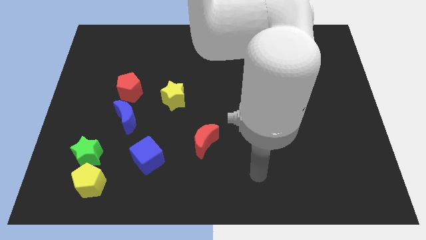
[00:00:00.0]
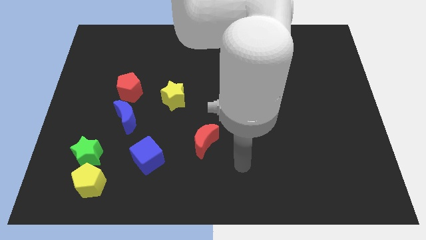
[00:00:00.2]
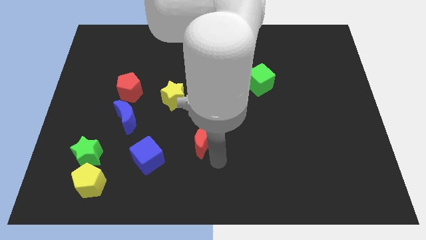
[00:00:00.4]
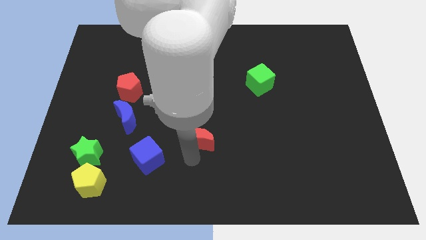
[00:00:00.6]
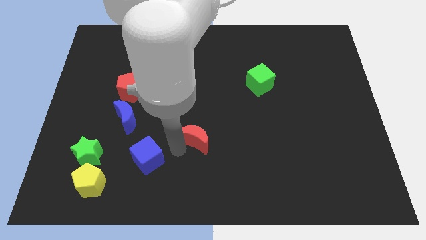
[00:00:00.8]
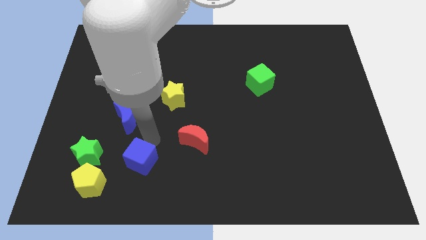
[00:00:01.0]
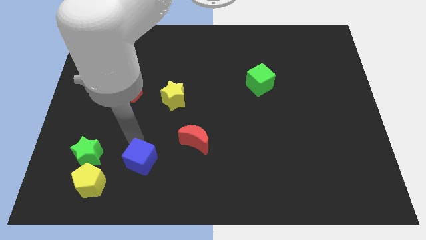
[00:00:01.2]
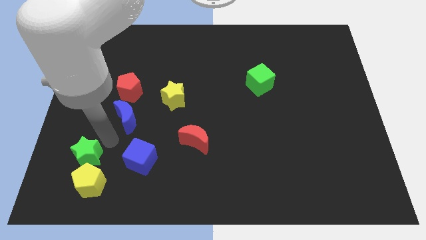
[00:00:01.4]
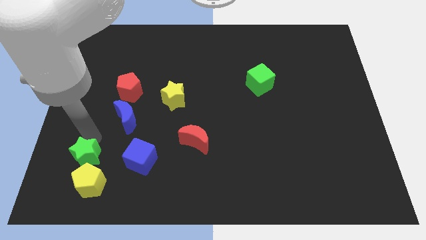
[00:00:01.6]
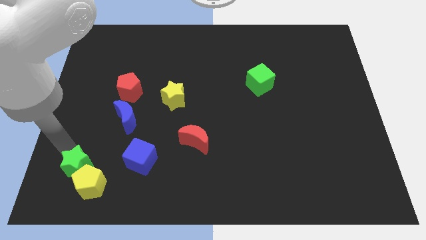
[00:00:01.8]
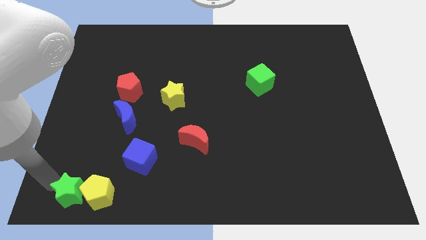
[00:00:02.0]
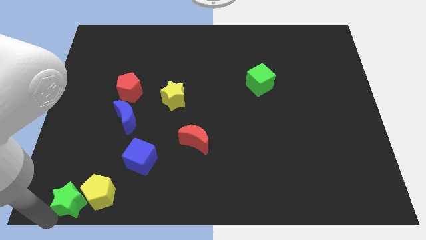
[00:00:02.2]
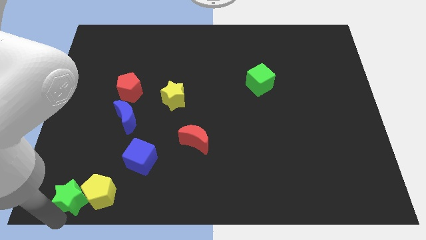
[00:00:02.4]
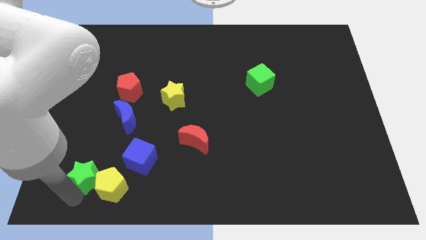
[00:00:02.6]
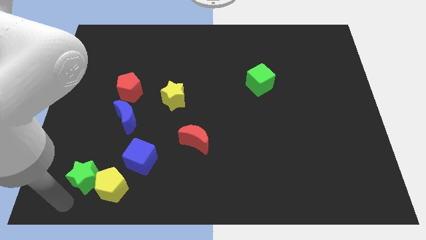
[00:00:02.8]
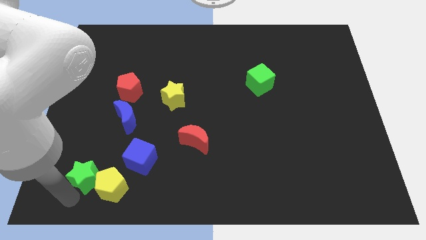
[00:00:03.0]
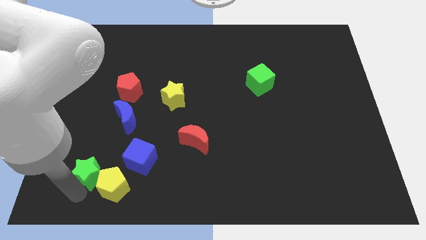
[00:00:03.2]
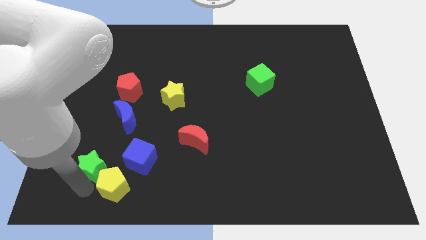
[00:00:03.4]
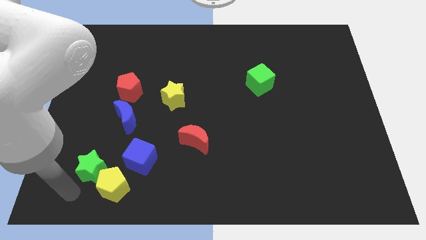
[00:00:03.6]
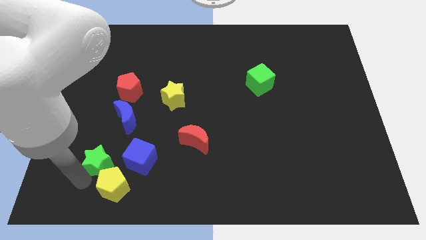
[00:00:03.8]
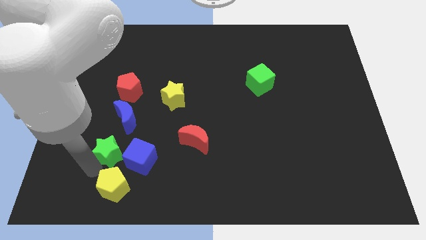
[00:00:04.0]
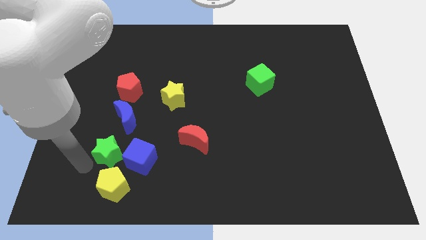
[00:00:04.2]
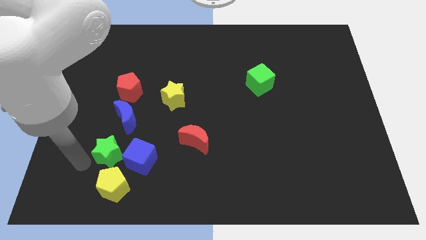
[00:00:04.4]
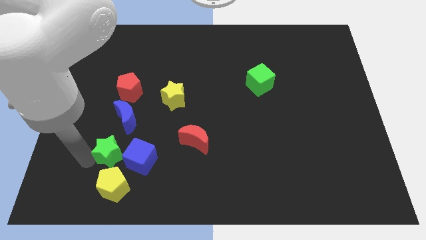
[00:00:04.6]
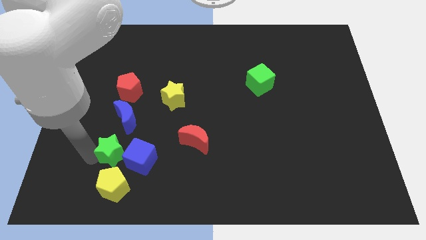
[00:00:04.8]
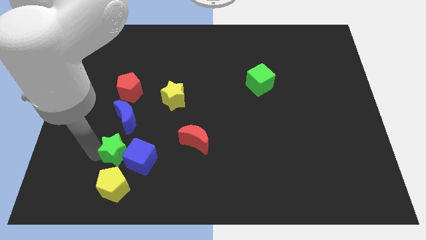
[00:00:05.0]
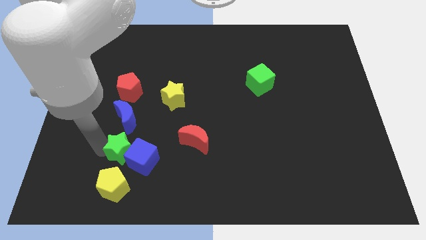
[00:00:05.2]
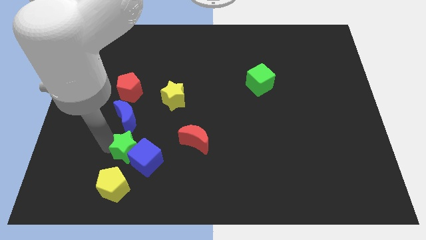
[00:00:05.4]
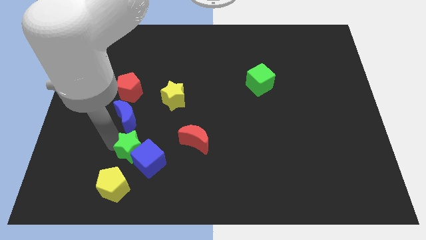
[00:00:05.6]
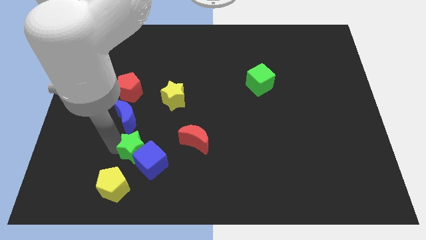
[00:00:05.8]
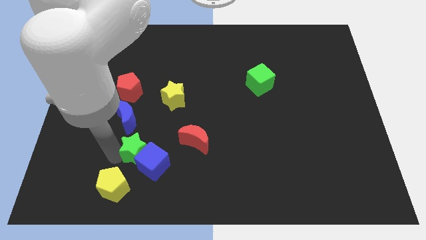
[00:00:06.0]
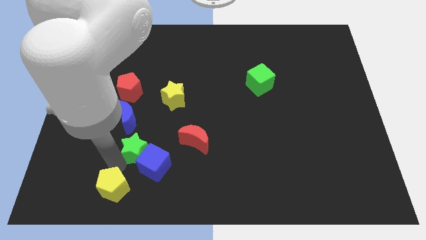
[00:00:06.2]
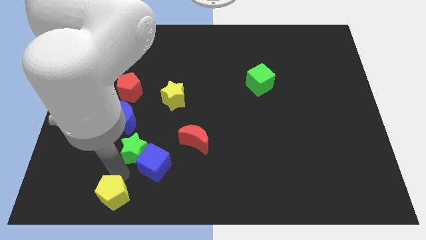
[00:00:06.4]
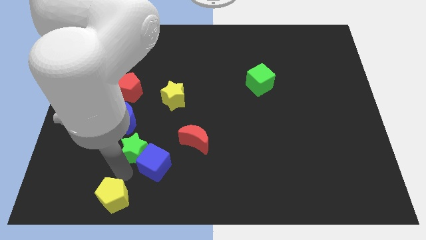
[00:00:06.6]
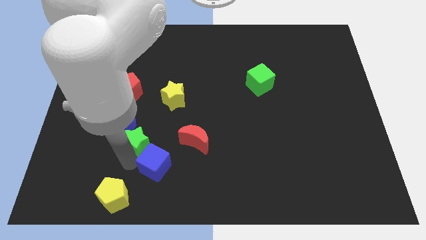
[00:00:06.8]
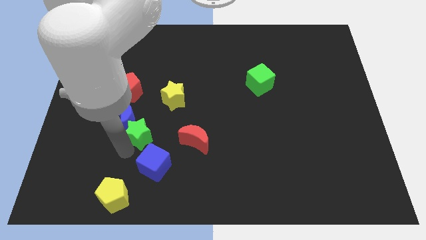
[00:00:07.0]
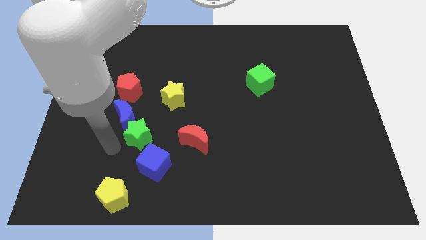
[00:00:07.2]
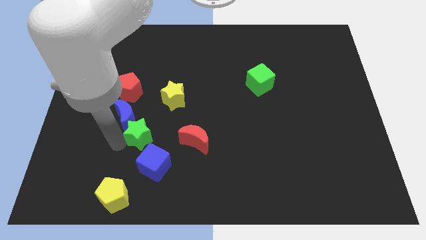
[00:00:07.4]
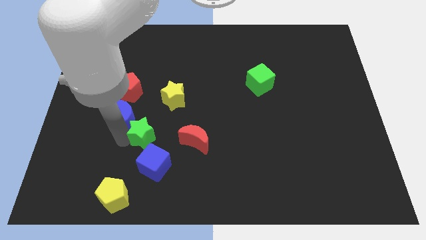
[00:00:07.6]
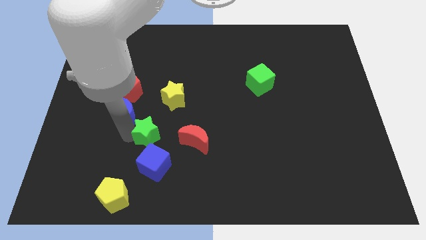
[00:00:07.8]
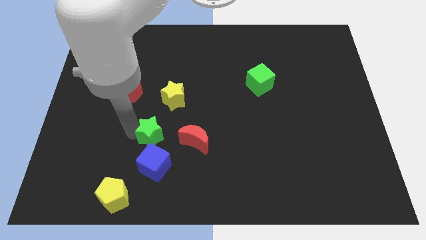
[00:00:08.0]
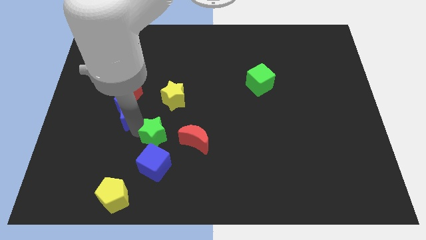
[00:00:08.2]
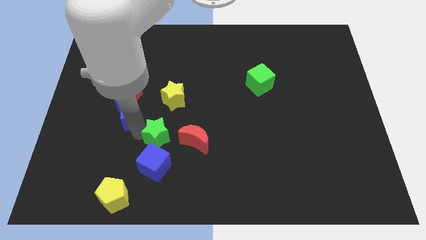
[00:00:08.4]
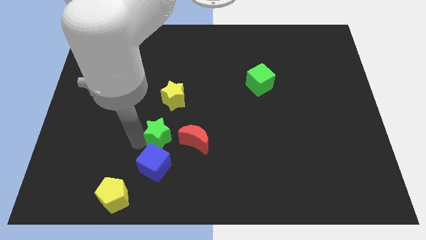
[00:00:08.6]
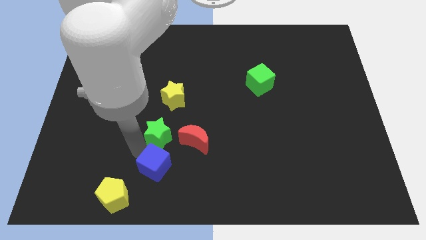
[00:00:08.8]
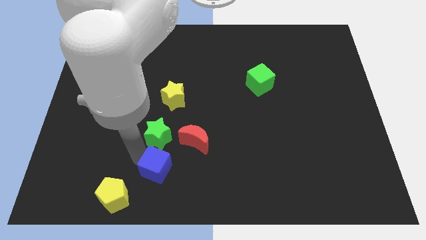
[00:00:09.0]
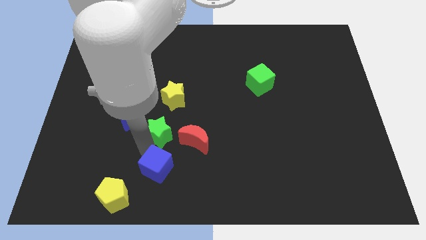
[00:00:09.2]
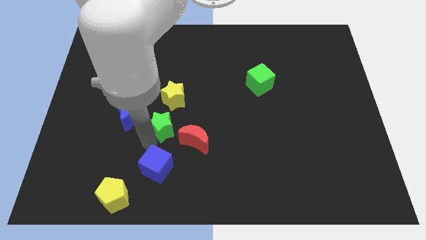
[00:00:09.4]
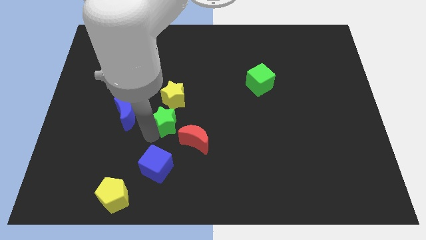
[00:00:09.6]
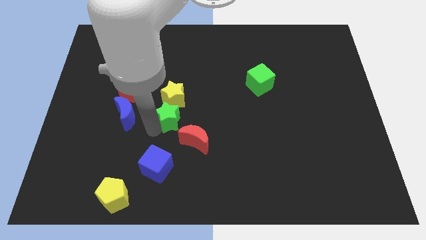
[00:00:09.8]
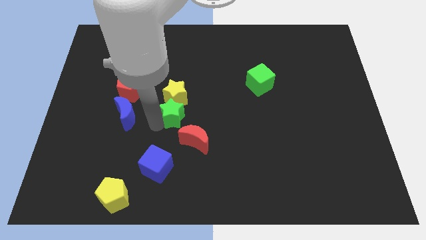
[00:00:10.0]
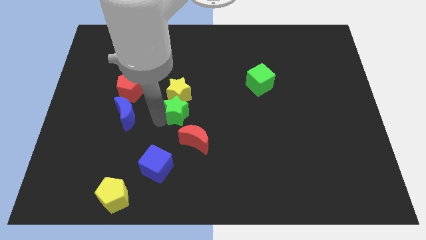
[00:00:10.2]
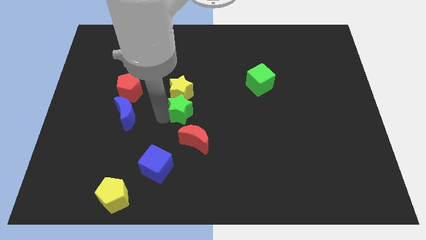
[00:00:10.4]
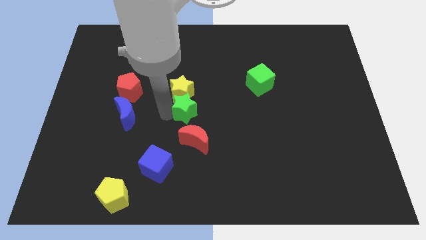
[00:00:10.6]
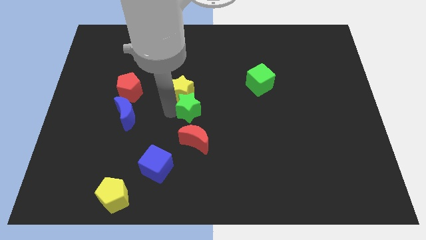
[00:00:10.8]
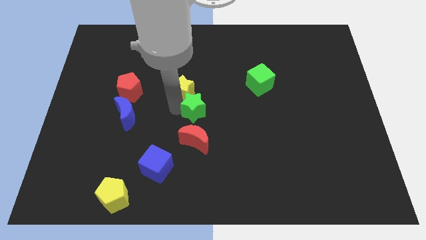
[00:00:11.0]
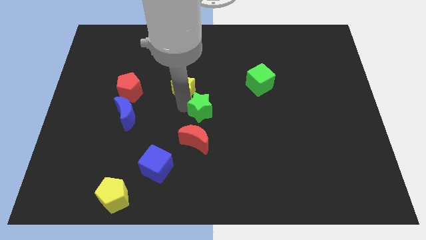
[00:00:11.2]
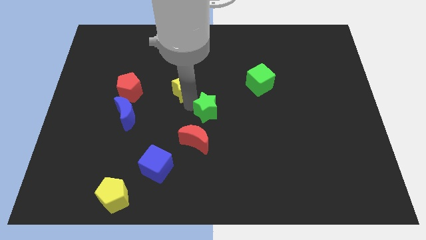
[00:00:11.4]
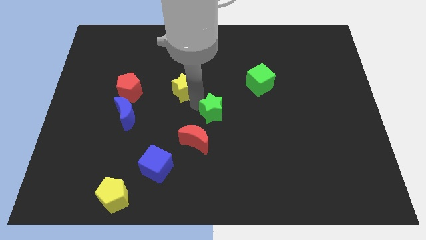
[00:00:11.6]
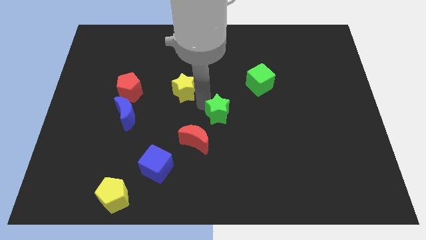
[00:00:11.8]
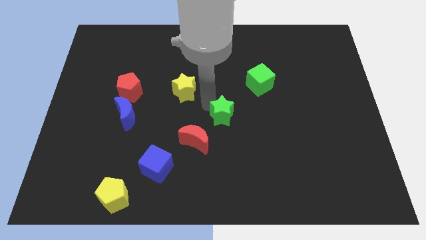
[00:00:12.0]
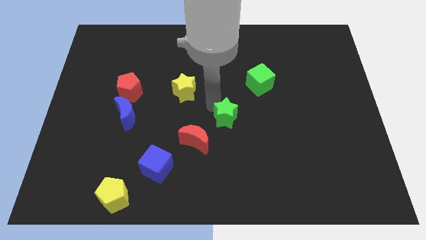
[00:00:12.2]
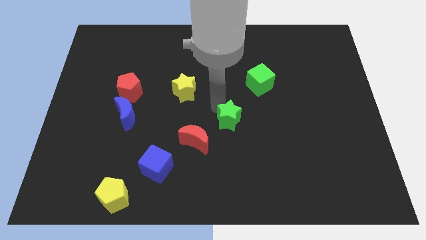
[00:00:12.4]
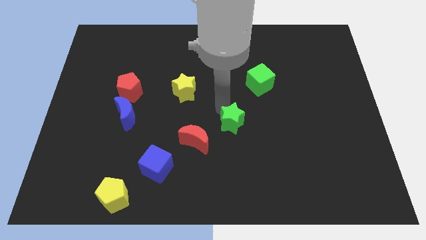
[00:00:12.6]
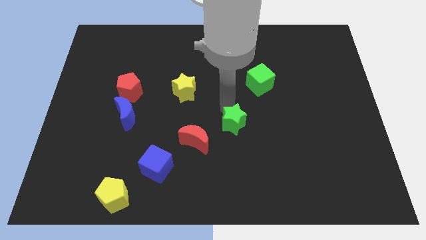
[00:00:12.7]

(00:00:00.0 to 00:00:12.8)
push the green star right of the red moon

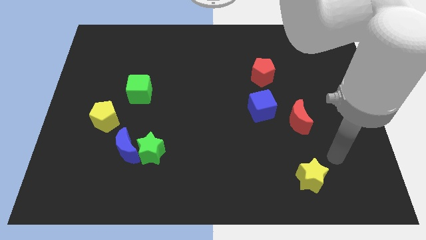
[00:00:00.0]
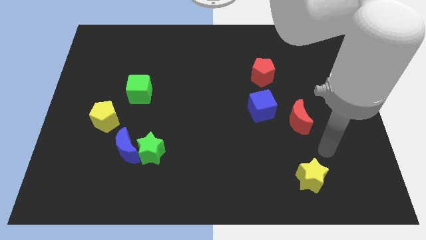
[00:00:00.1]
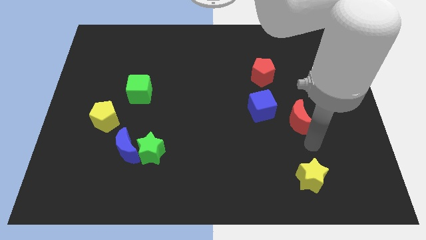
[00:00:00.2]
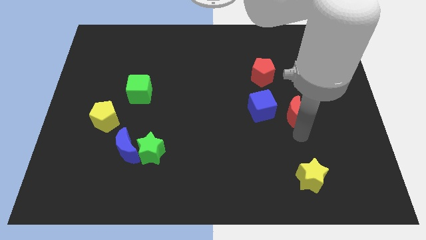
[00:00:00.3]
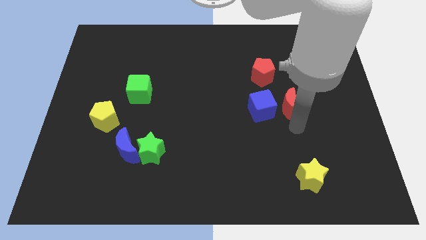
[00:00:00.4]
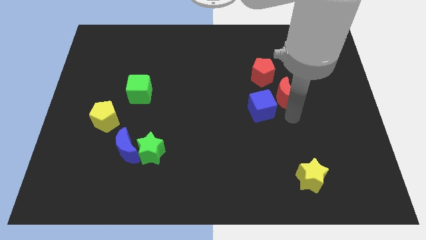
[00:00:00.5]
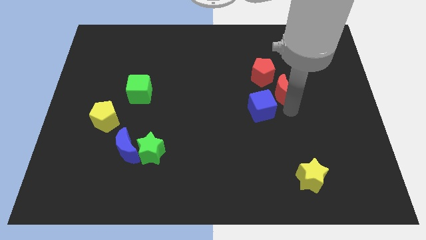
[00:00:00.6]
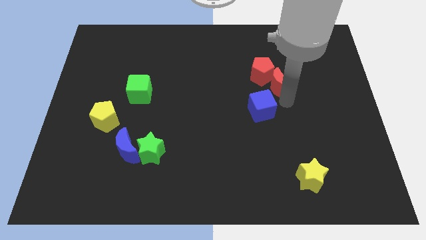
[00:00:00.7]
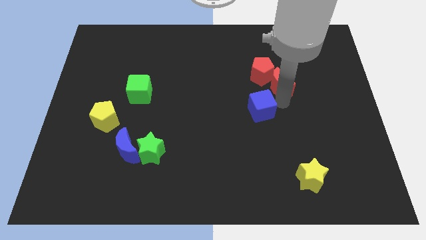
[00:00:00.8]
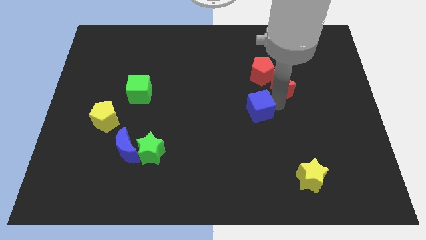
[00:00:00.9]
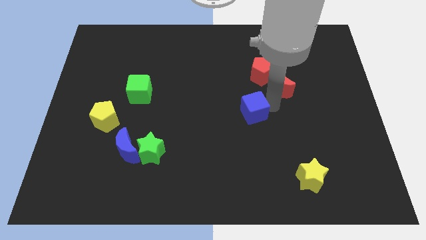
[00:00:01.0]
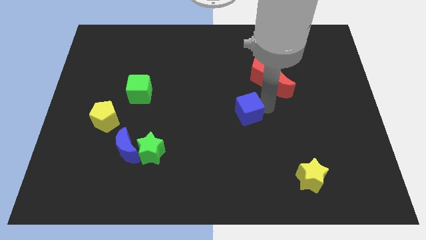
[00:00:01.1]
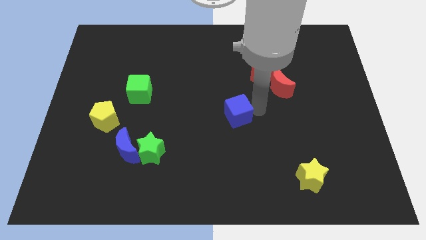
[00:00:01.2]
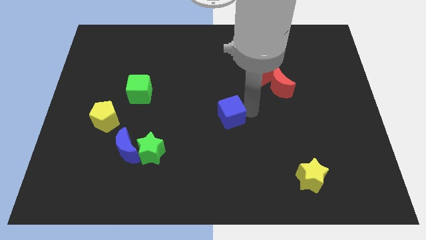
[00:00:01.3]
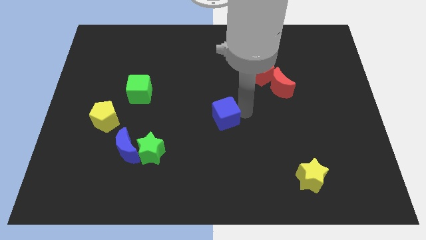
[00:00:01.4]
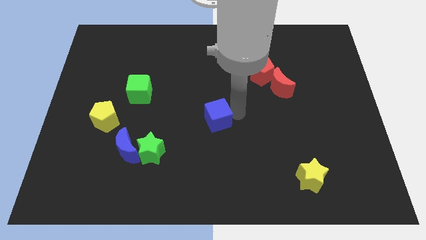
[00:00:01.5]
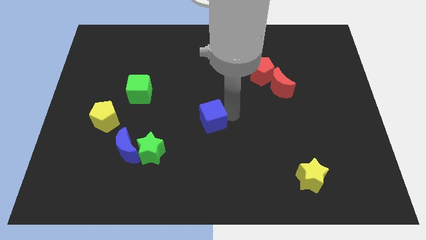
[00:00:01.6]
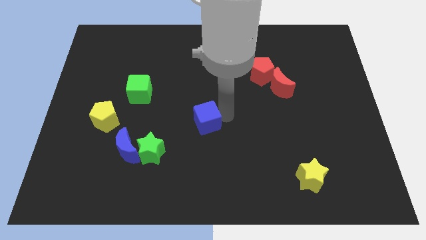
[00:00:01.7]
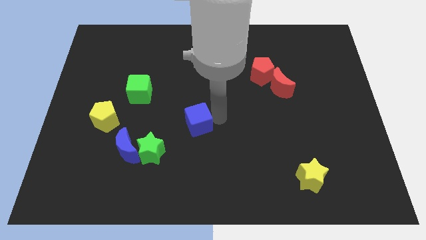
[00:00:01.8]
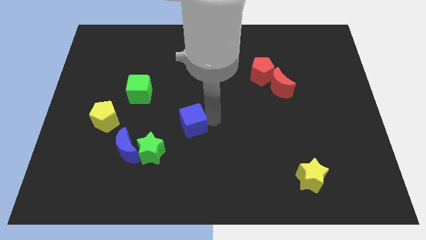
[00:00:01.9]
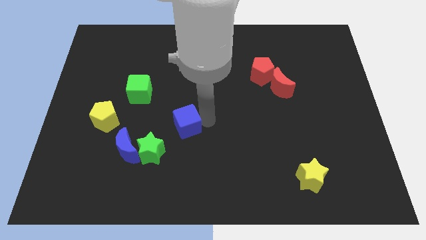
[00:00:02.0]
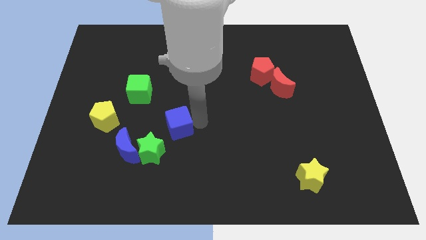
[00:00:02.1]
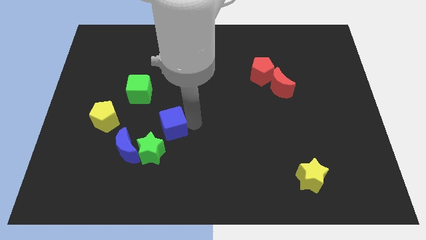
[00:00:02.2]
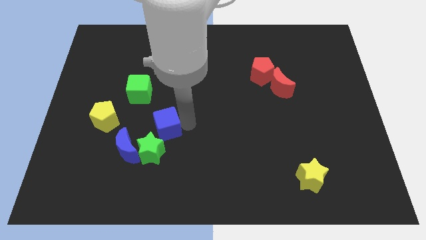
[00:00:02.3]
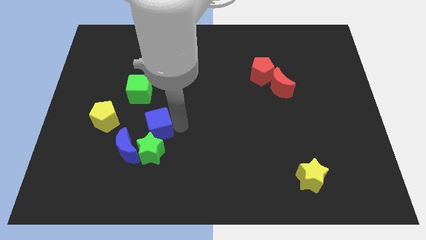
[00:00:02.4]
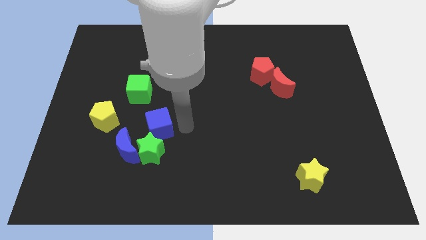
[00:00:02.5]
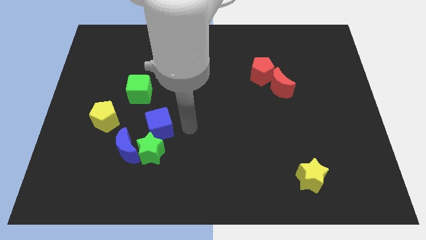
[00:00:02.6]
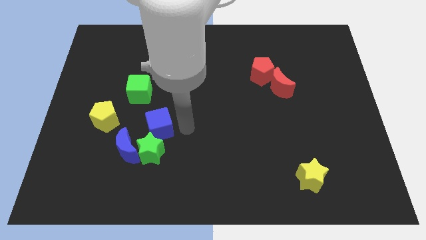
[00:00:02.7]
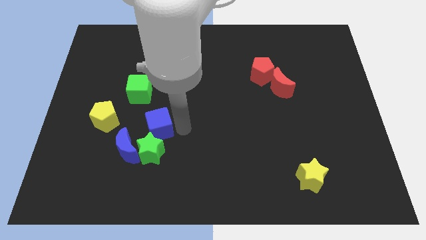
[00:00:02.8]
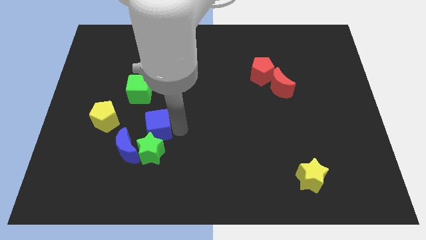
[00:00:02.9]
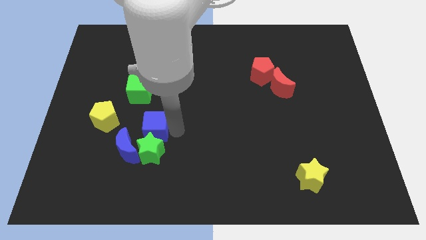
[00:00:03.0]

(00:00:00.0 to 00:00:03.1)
push the blue cube to the bottom of the green cube
